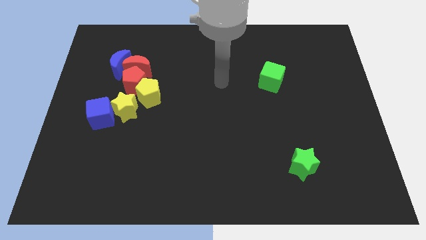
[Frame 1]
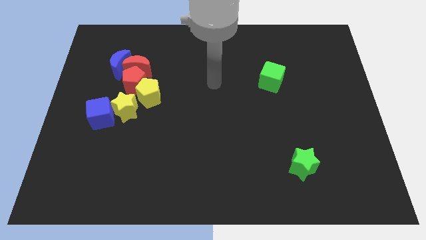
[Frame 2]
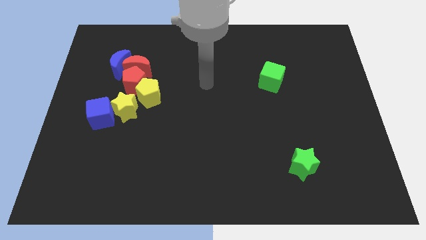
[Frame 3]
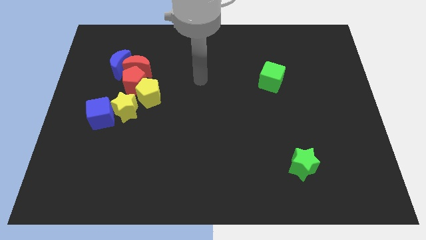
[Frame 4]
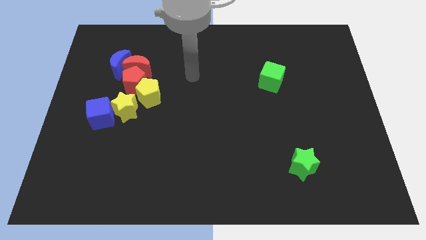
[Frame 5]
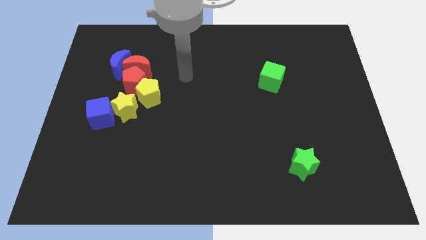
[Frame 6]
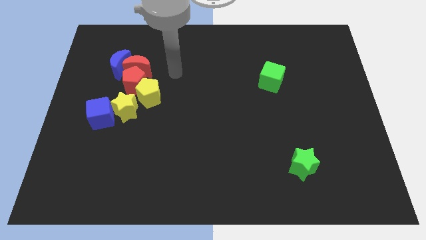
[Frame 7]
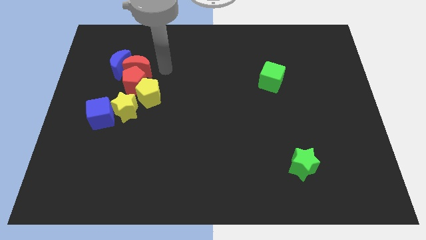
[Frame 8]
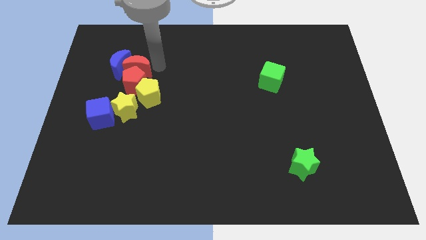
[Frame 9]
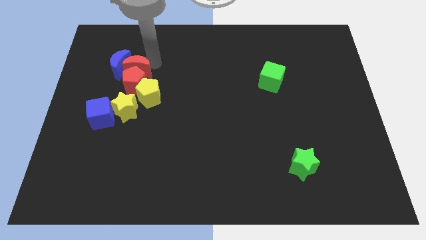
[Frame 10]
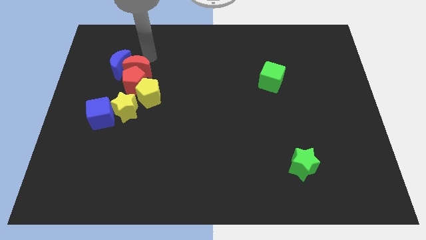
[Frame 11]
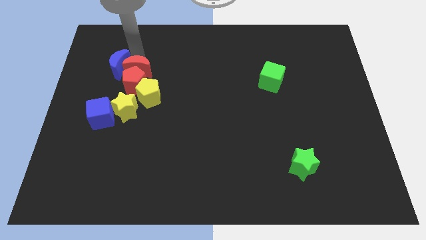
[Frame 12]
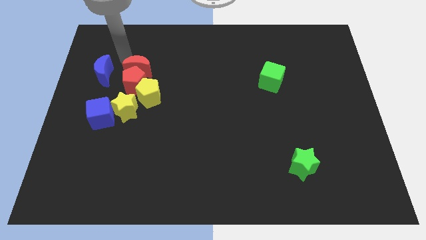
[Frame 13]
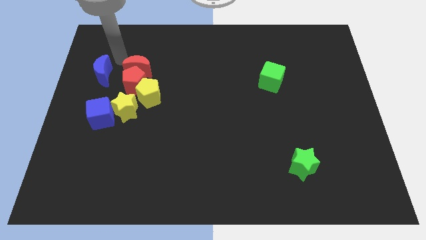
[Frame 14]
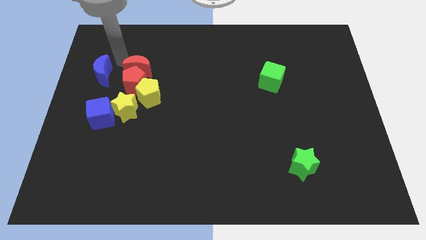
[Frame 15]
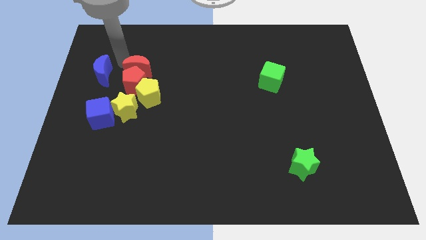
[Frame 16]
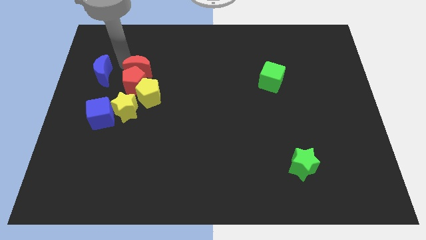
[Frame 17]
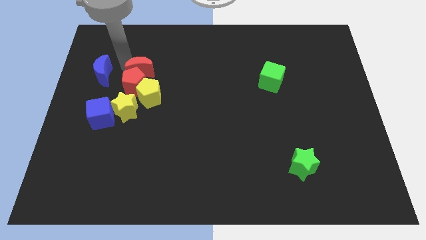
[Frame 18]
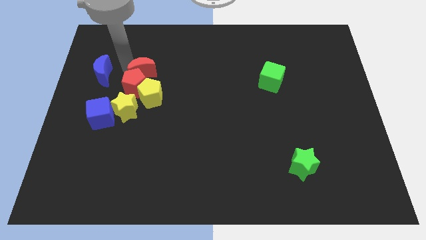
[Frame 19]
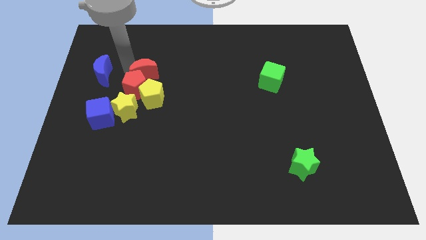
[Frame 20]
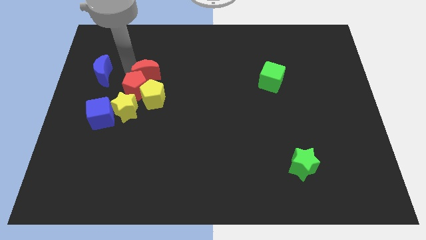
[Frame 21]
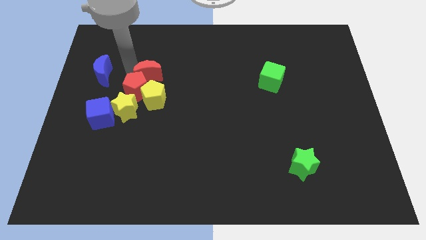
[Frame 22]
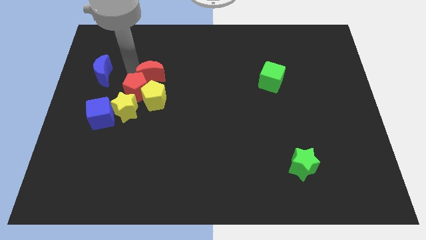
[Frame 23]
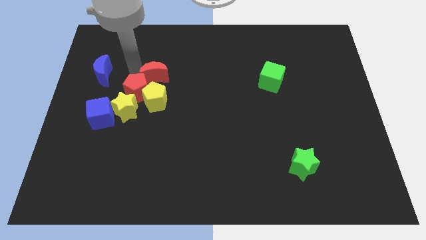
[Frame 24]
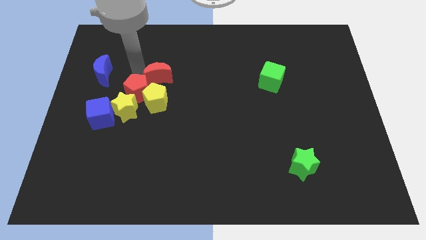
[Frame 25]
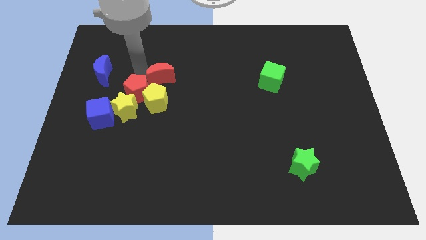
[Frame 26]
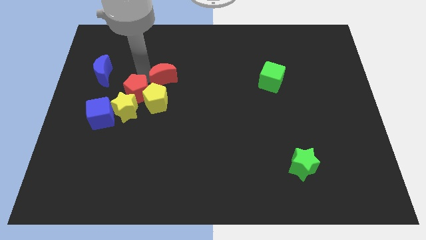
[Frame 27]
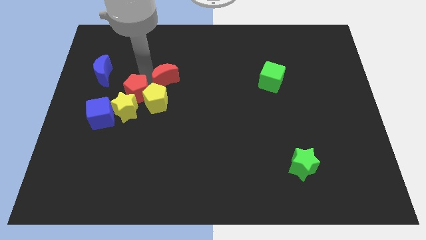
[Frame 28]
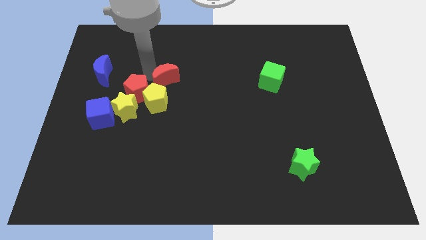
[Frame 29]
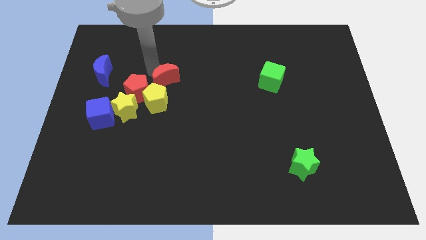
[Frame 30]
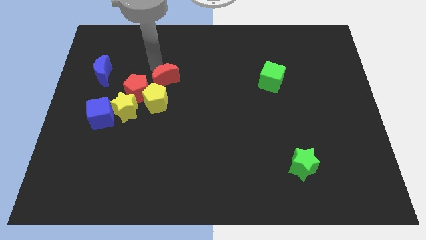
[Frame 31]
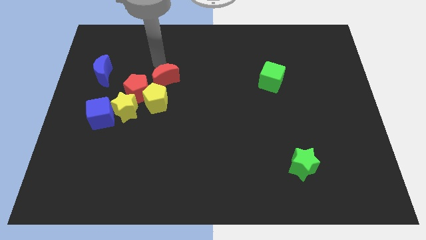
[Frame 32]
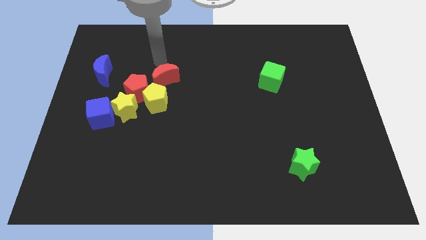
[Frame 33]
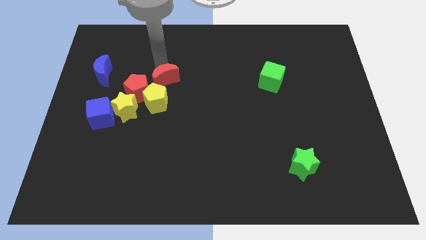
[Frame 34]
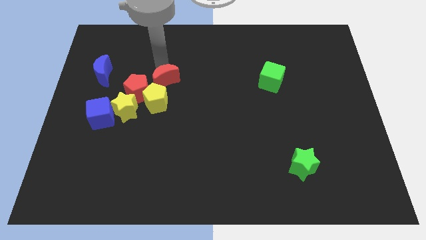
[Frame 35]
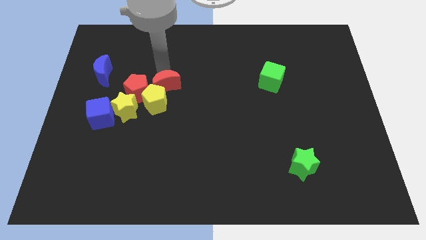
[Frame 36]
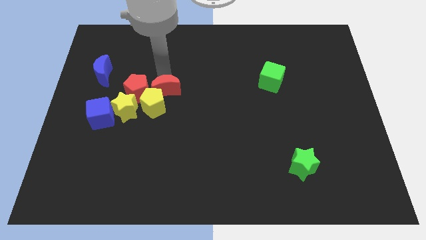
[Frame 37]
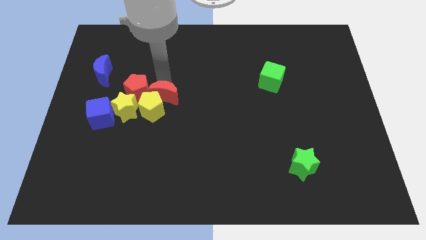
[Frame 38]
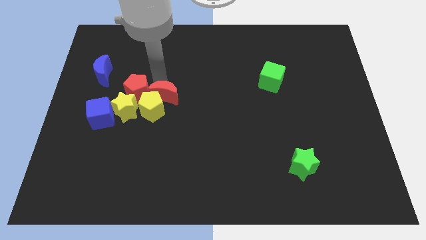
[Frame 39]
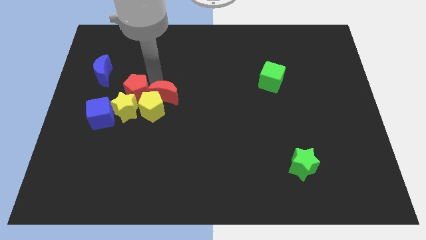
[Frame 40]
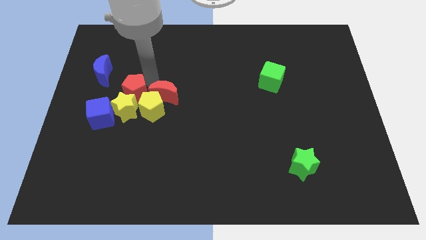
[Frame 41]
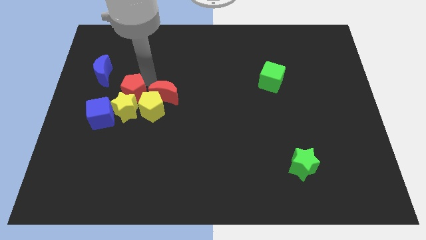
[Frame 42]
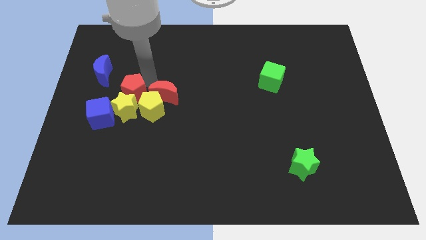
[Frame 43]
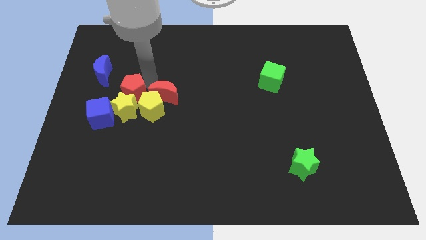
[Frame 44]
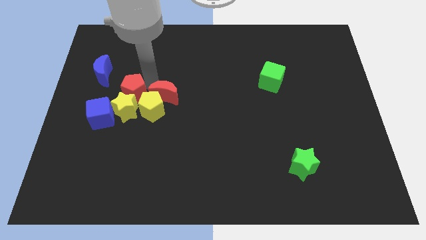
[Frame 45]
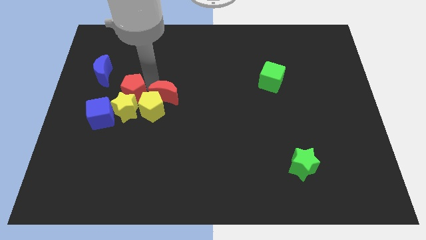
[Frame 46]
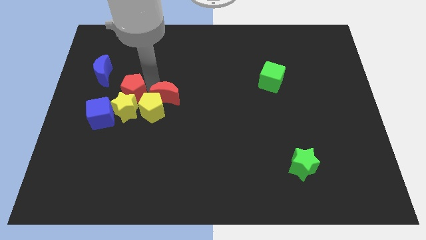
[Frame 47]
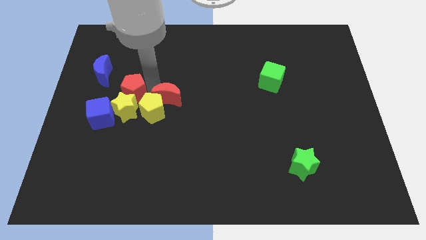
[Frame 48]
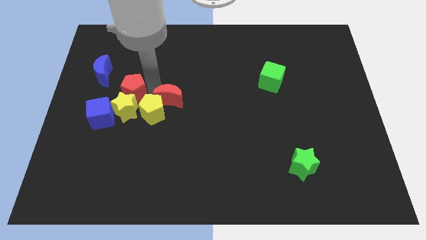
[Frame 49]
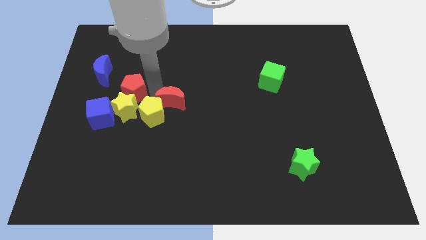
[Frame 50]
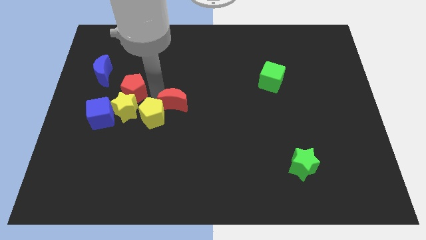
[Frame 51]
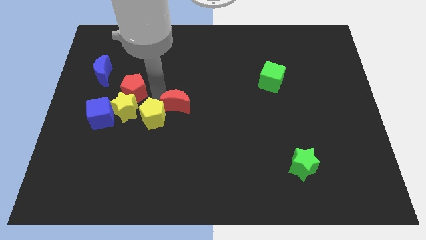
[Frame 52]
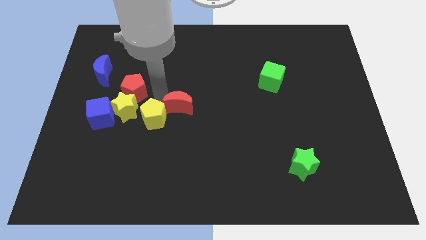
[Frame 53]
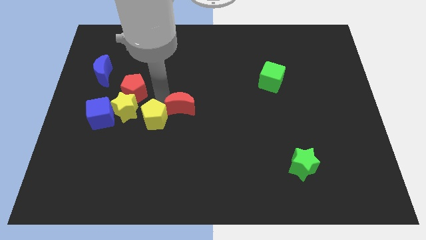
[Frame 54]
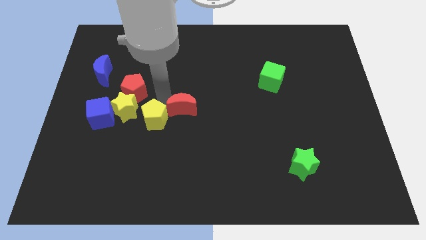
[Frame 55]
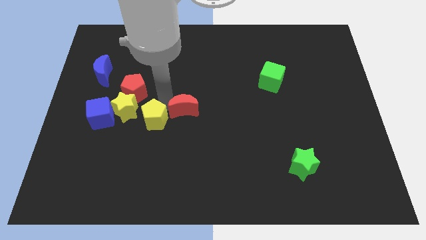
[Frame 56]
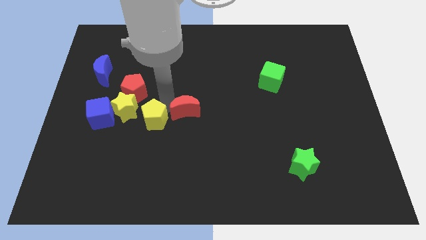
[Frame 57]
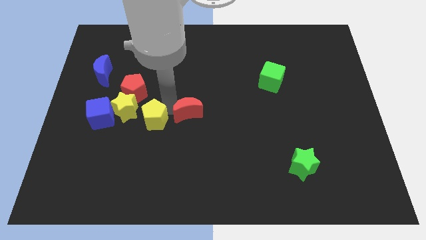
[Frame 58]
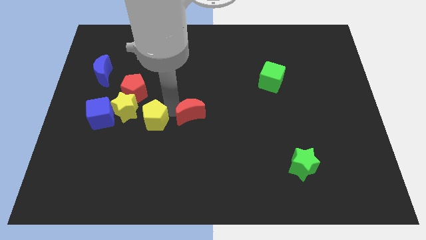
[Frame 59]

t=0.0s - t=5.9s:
push the red moon diagonally down and to the right

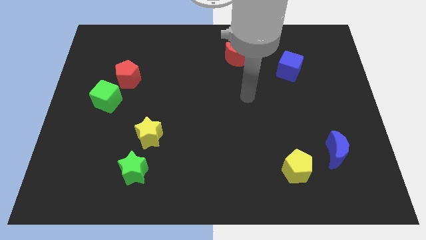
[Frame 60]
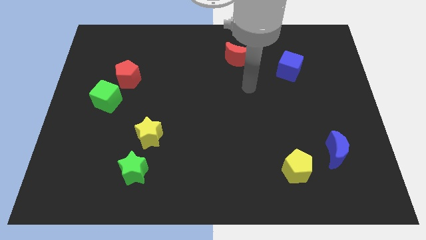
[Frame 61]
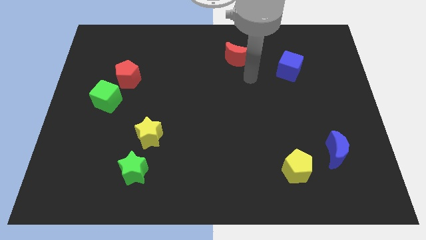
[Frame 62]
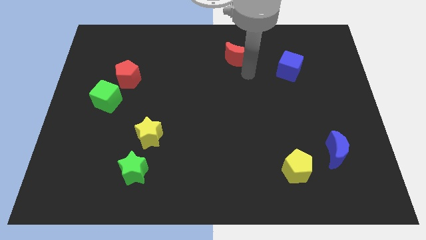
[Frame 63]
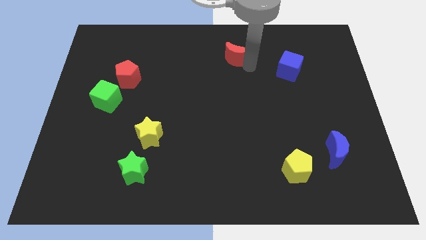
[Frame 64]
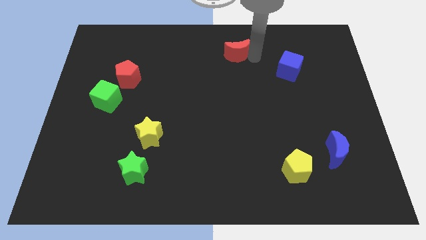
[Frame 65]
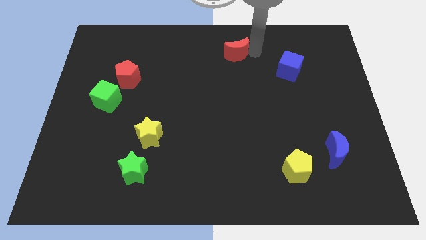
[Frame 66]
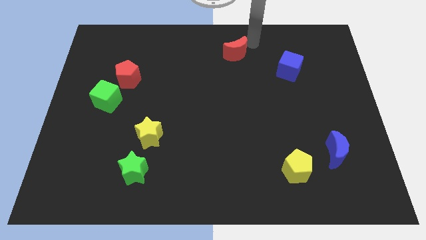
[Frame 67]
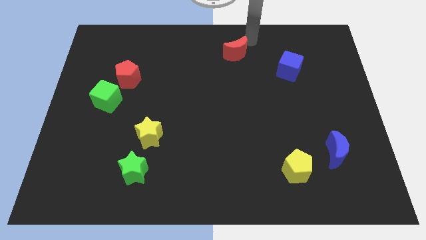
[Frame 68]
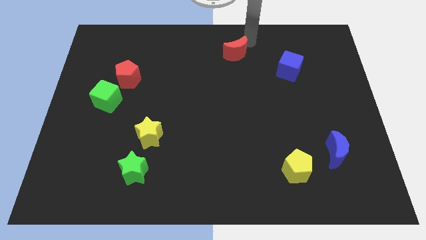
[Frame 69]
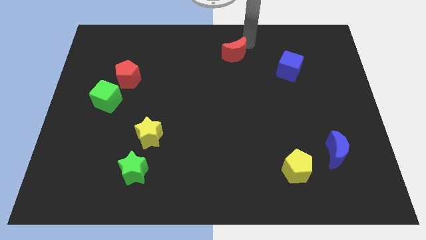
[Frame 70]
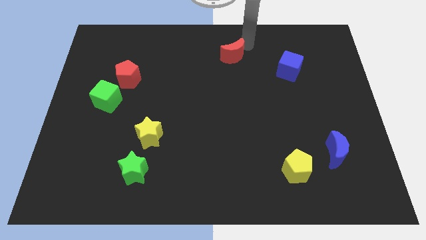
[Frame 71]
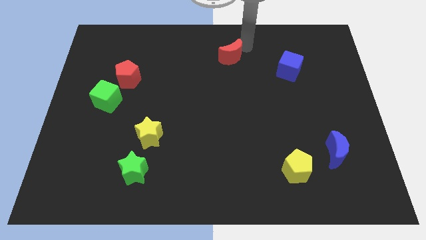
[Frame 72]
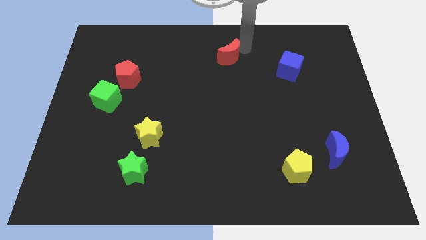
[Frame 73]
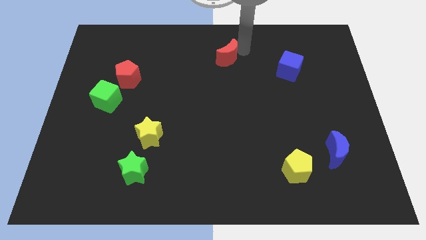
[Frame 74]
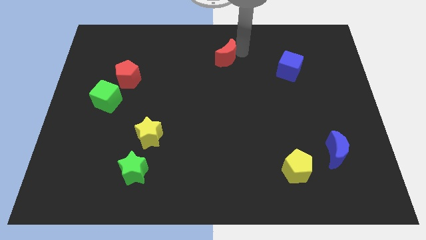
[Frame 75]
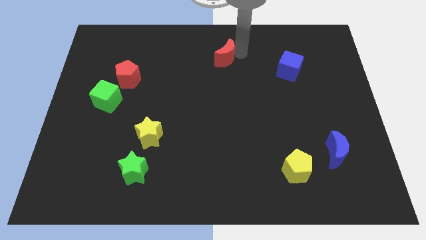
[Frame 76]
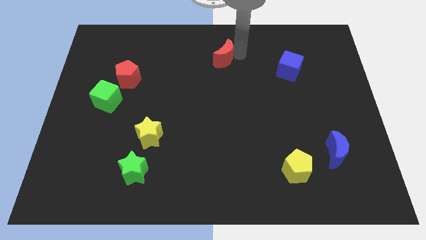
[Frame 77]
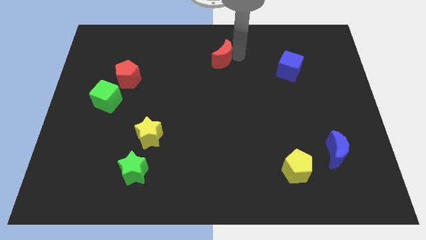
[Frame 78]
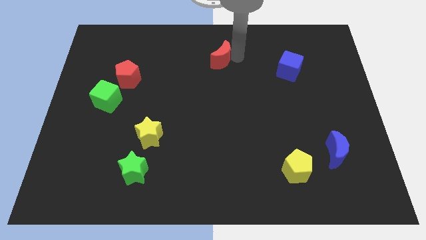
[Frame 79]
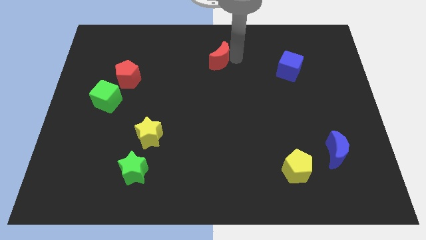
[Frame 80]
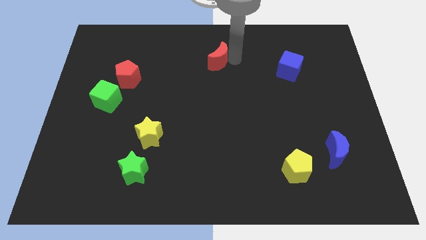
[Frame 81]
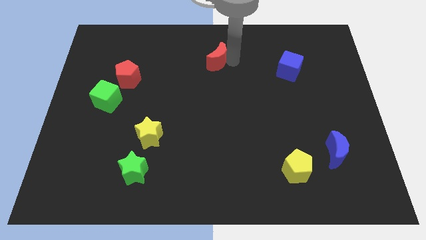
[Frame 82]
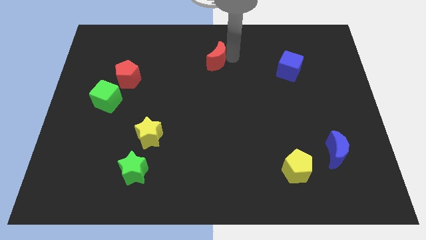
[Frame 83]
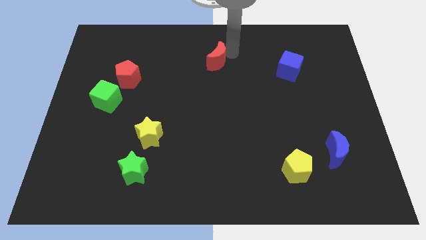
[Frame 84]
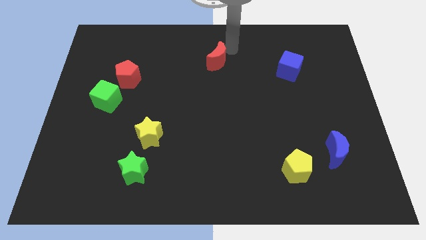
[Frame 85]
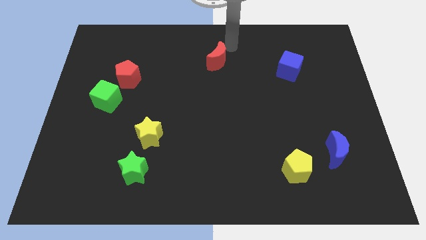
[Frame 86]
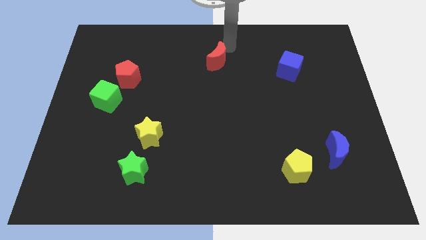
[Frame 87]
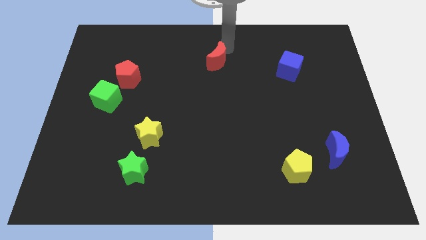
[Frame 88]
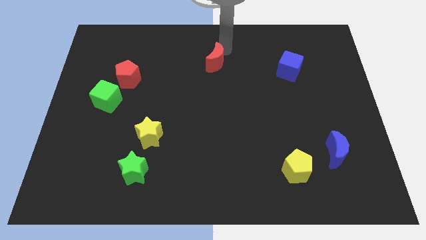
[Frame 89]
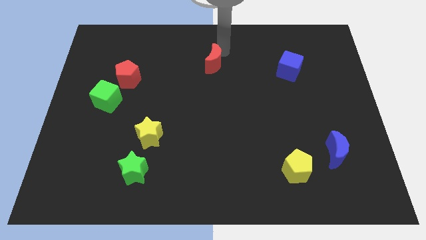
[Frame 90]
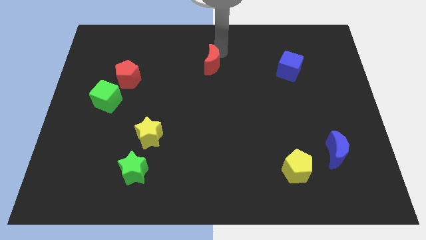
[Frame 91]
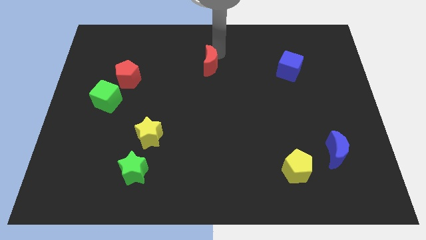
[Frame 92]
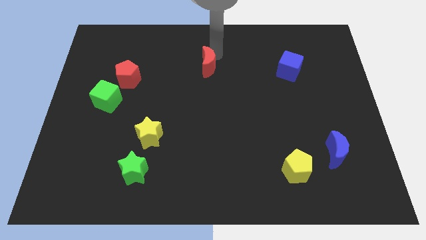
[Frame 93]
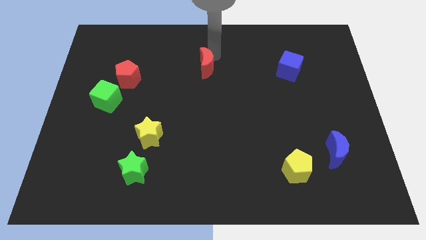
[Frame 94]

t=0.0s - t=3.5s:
slightly move the red moon diagonally downwards and to the left
